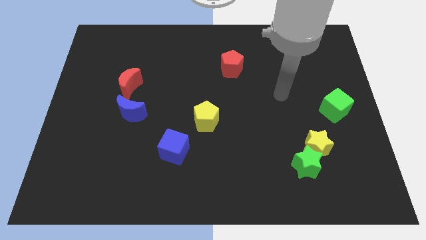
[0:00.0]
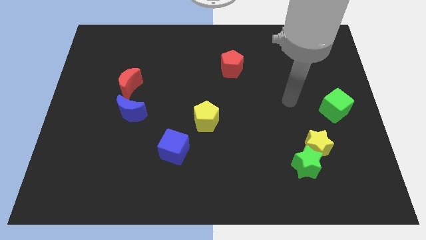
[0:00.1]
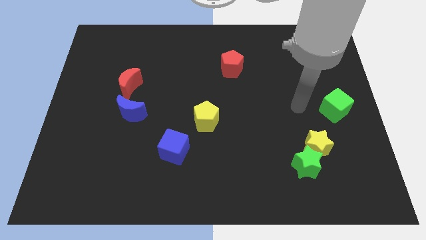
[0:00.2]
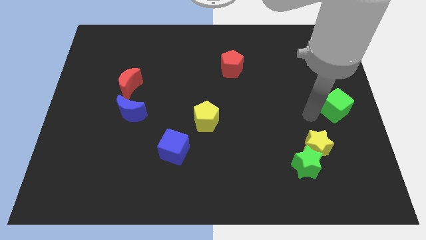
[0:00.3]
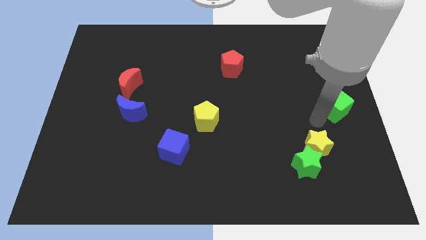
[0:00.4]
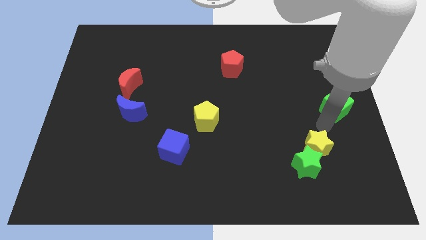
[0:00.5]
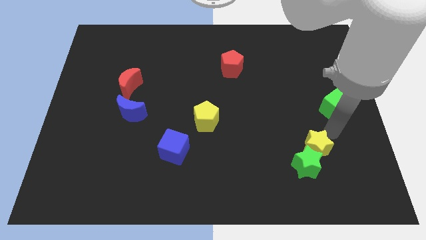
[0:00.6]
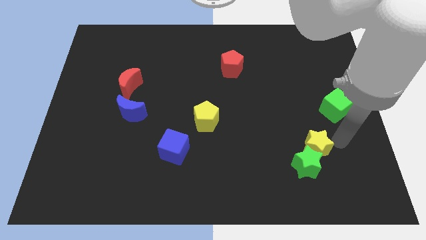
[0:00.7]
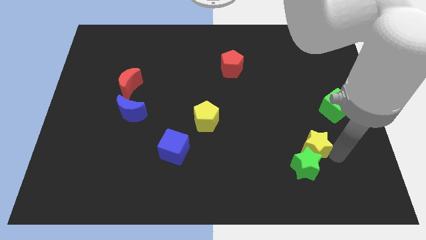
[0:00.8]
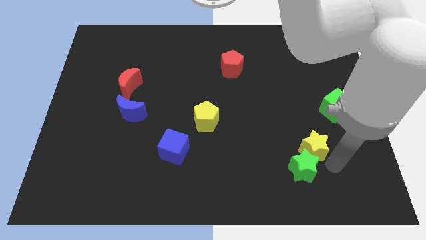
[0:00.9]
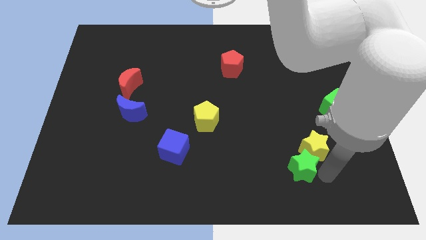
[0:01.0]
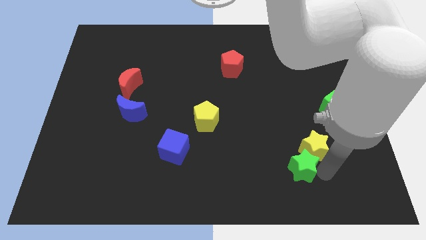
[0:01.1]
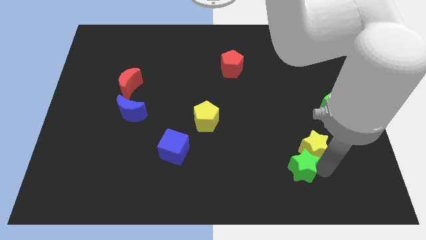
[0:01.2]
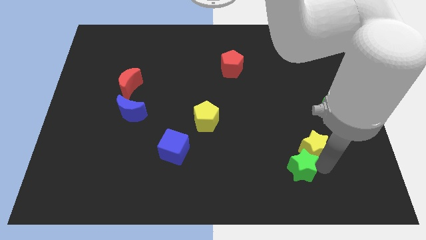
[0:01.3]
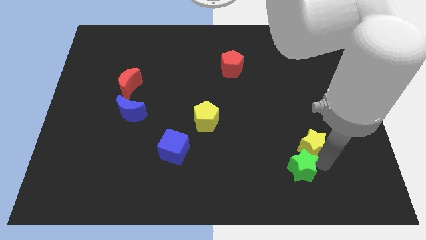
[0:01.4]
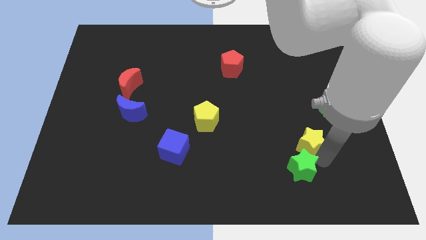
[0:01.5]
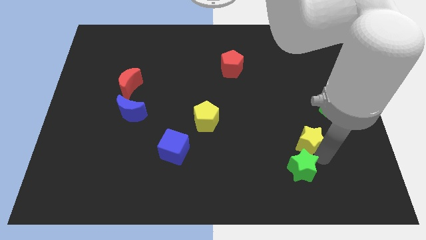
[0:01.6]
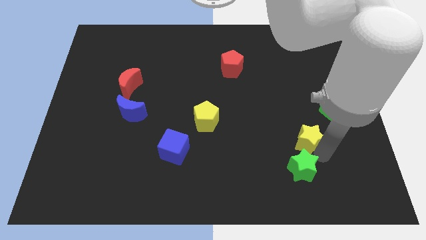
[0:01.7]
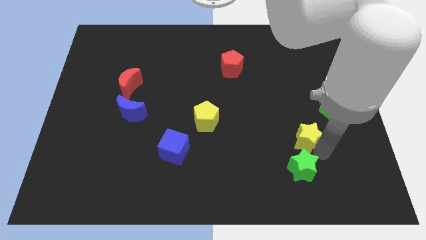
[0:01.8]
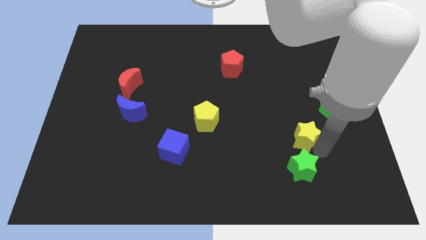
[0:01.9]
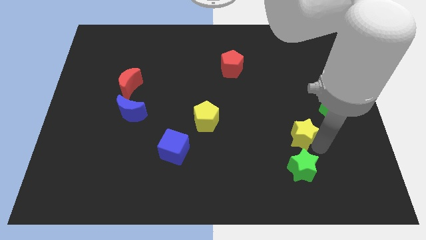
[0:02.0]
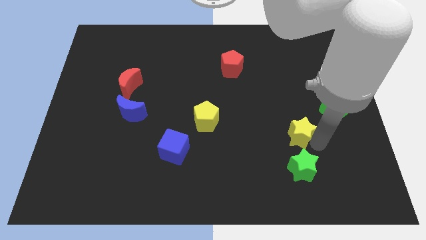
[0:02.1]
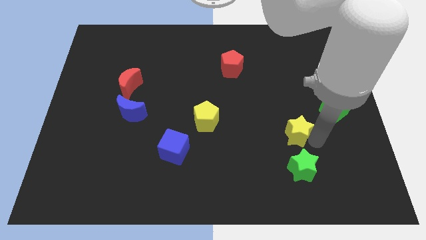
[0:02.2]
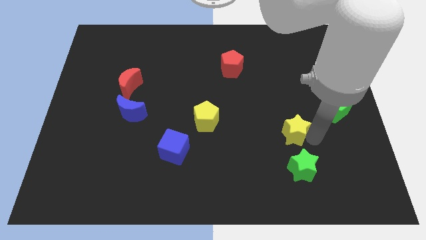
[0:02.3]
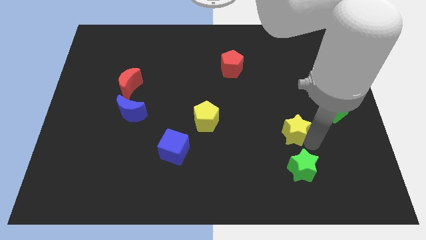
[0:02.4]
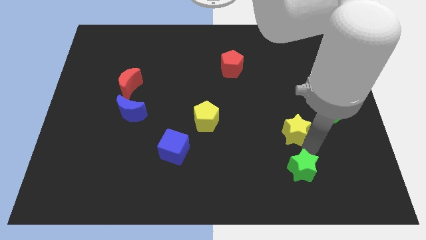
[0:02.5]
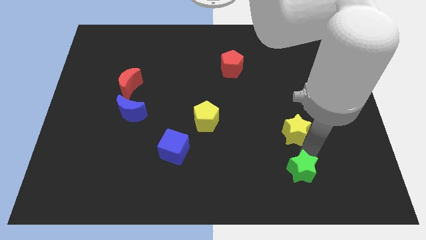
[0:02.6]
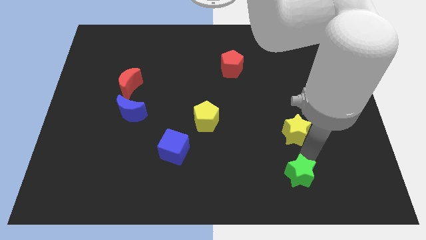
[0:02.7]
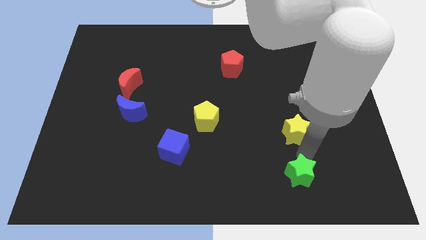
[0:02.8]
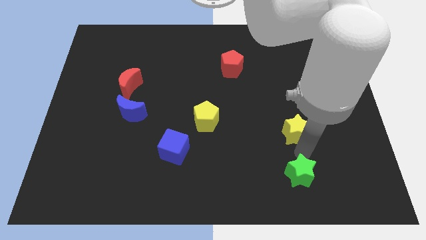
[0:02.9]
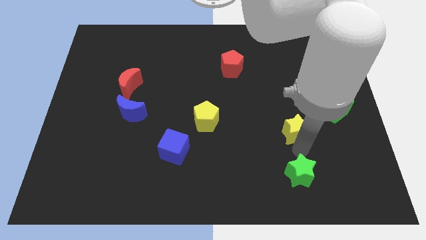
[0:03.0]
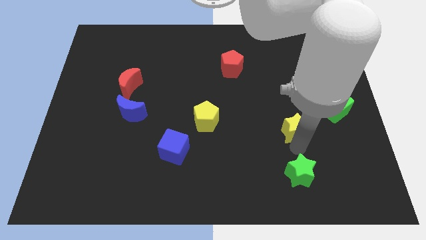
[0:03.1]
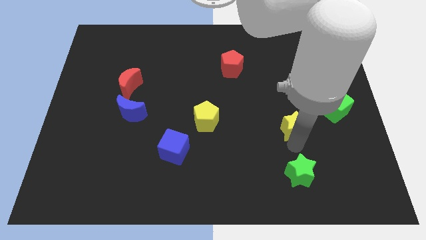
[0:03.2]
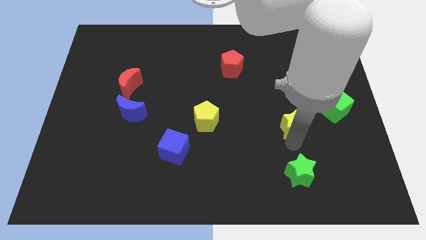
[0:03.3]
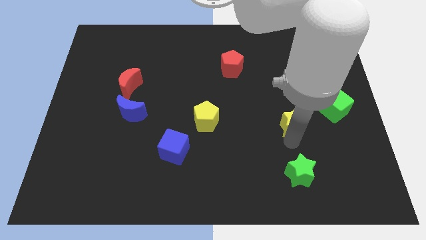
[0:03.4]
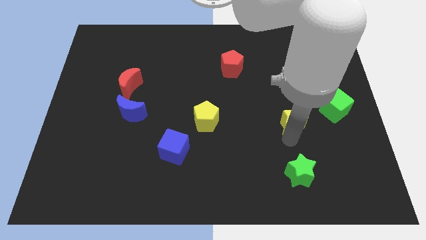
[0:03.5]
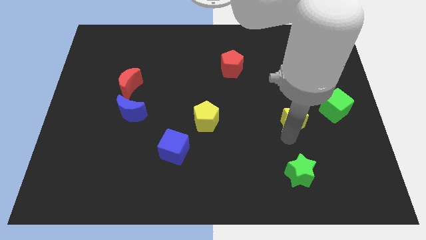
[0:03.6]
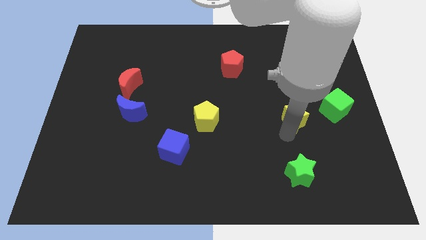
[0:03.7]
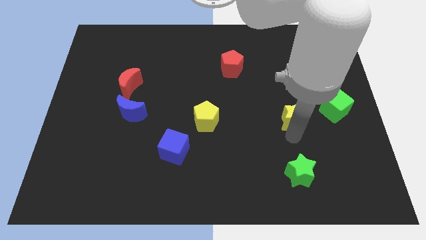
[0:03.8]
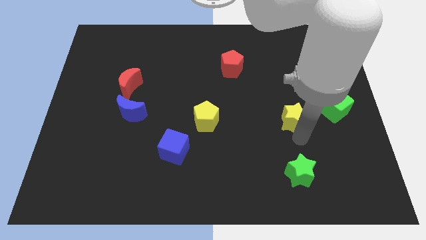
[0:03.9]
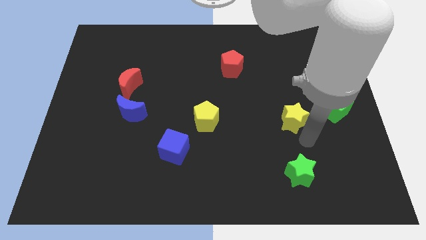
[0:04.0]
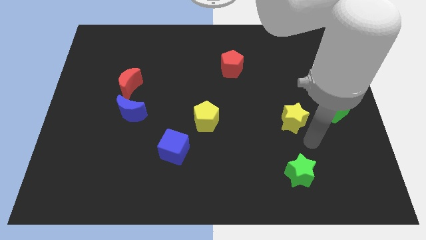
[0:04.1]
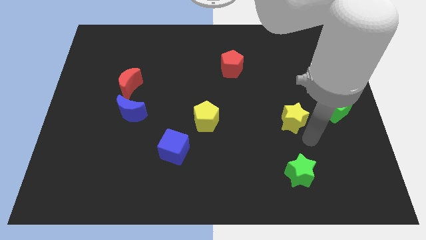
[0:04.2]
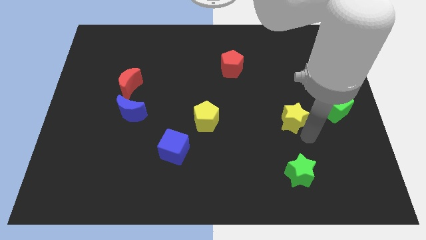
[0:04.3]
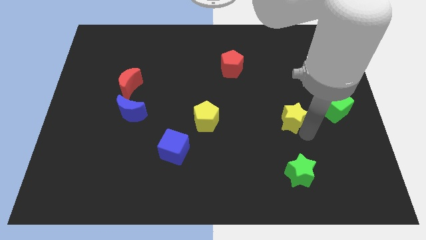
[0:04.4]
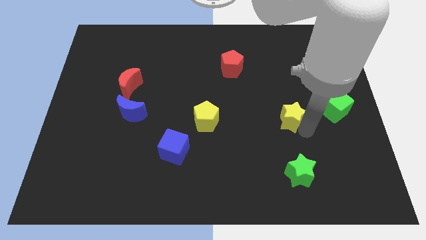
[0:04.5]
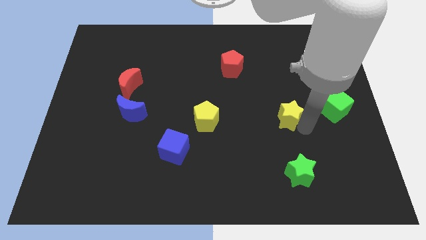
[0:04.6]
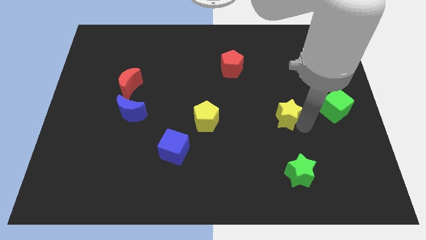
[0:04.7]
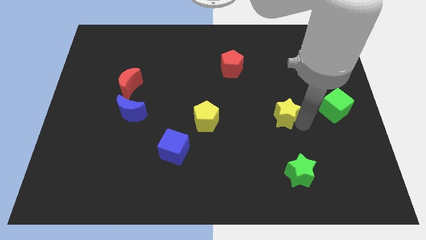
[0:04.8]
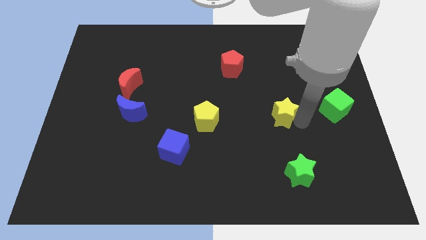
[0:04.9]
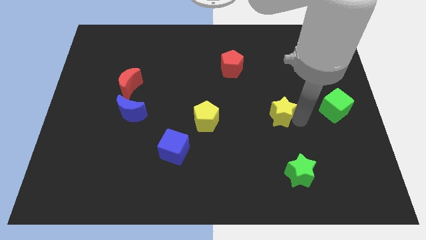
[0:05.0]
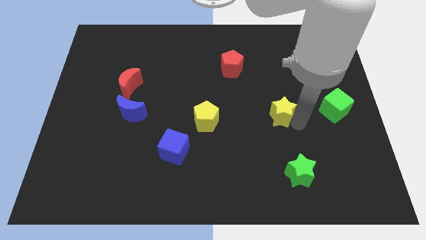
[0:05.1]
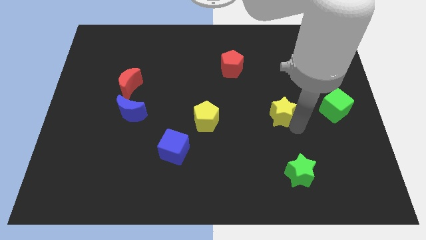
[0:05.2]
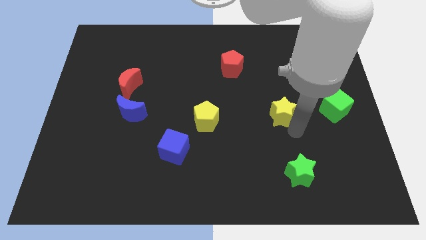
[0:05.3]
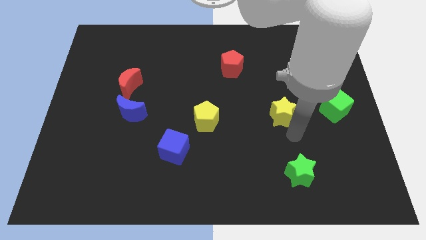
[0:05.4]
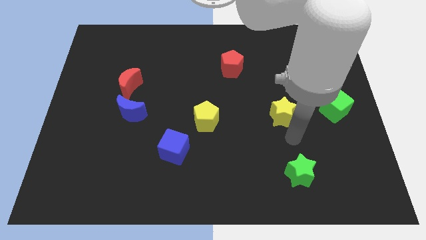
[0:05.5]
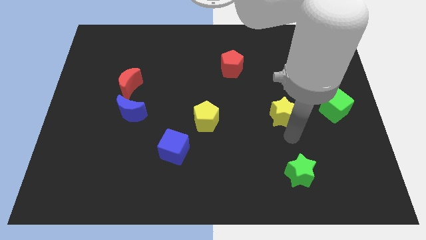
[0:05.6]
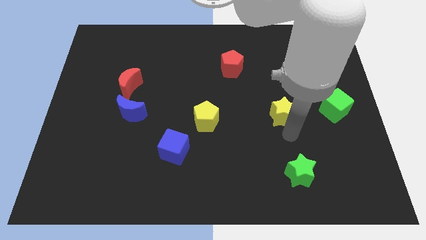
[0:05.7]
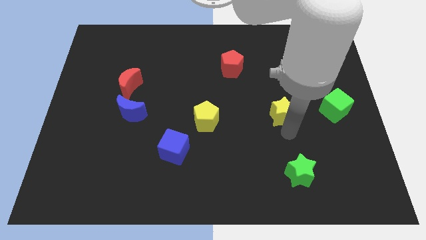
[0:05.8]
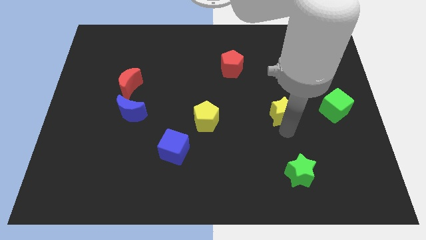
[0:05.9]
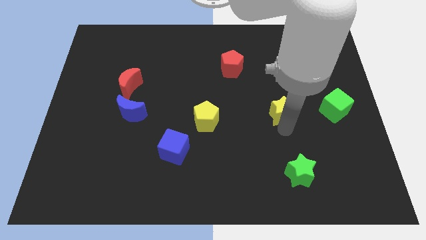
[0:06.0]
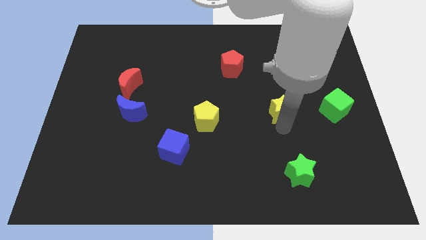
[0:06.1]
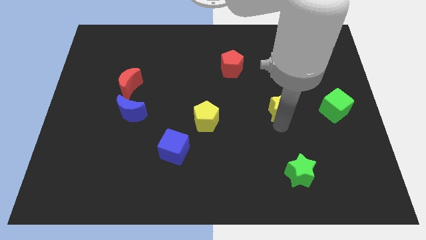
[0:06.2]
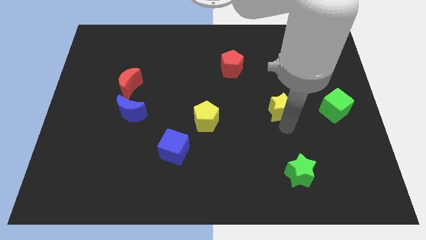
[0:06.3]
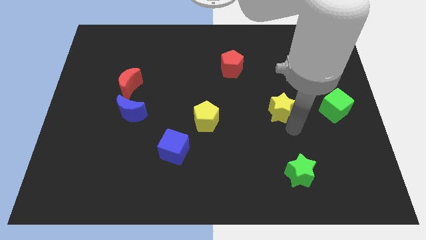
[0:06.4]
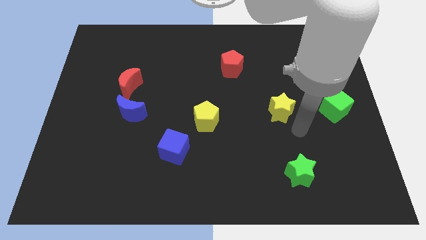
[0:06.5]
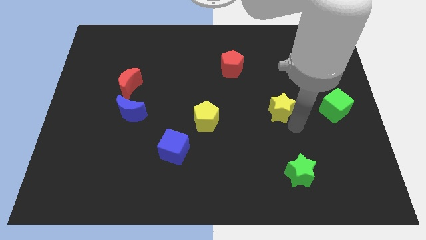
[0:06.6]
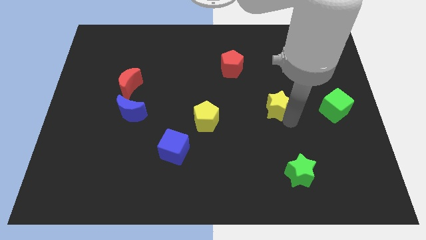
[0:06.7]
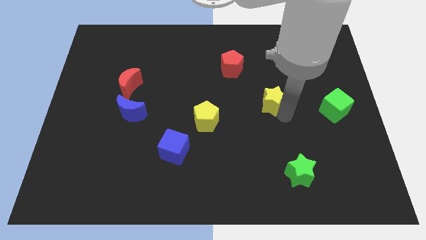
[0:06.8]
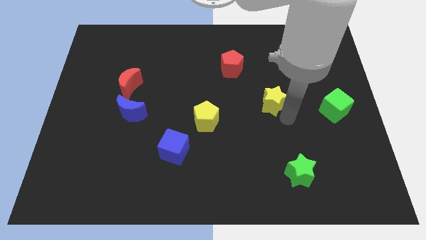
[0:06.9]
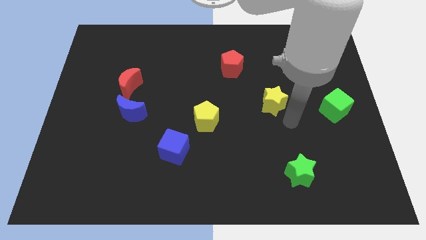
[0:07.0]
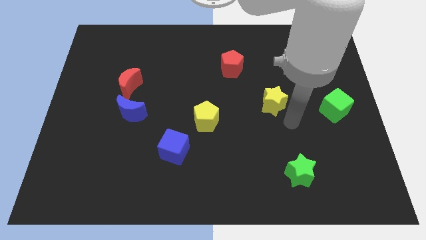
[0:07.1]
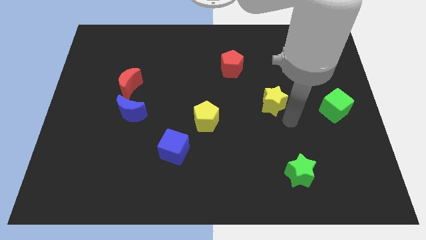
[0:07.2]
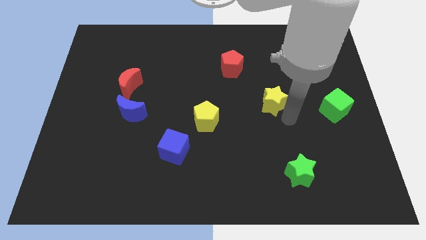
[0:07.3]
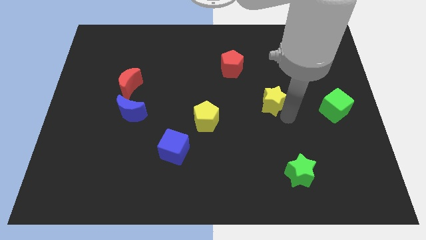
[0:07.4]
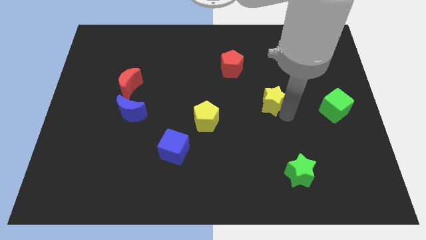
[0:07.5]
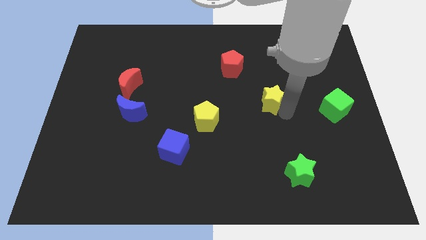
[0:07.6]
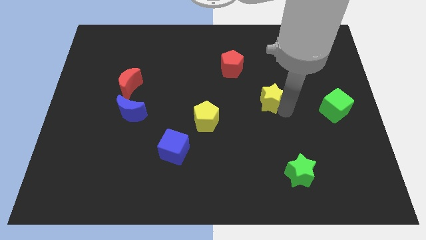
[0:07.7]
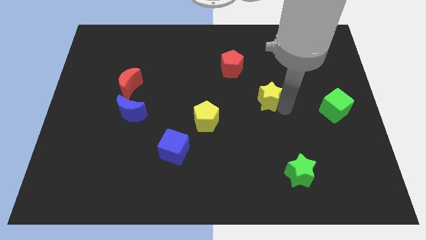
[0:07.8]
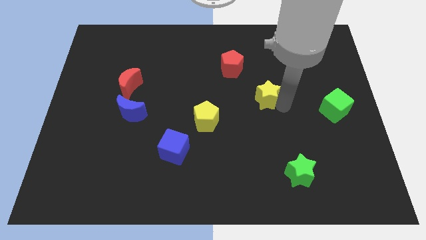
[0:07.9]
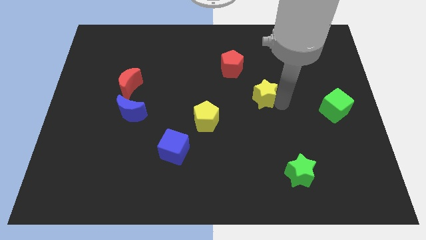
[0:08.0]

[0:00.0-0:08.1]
push the yellow star diagonally down and to the right of the red pentagon
